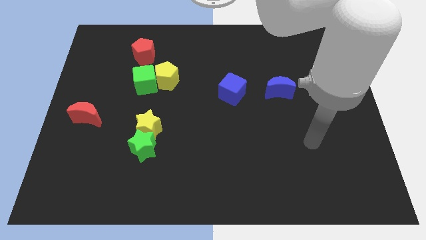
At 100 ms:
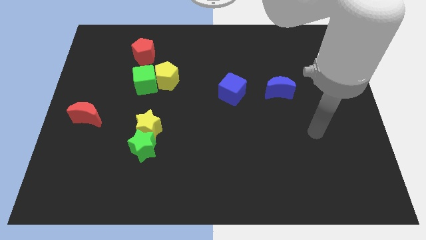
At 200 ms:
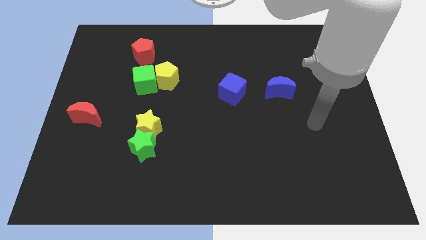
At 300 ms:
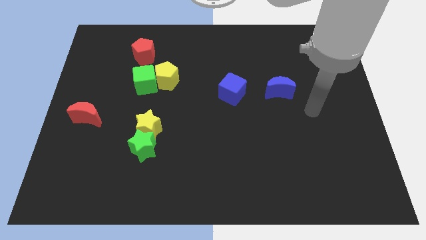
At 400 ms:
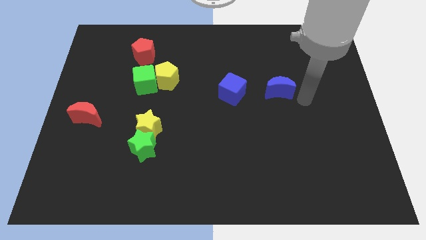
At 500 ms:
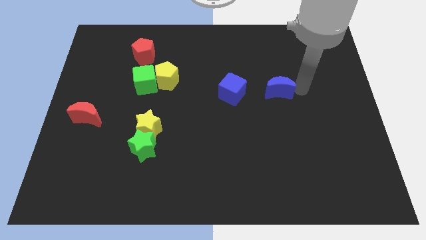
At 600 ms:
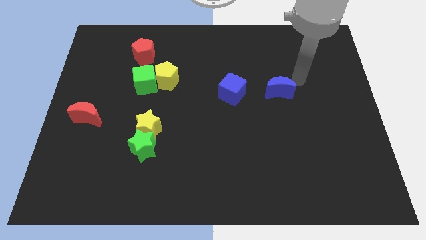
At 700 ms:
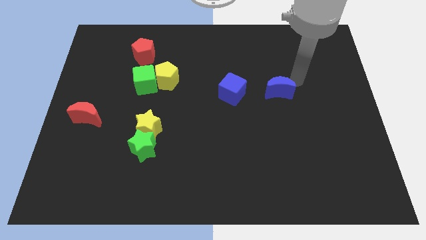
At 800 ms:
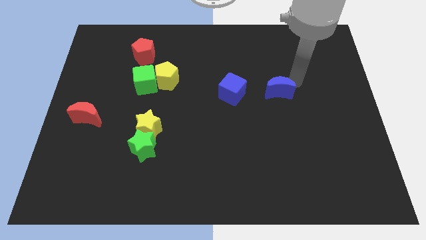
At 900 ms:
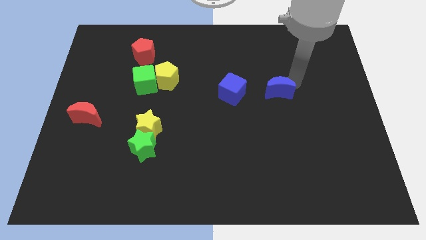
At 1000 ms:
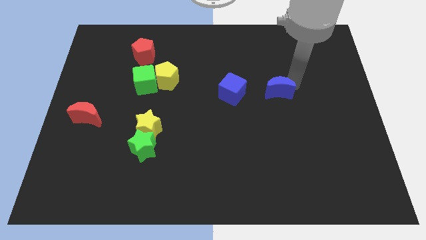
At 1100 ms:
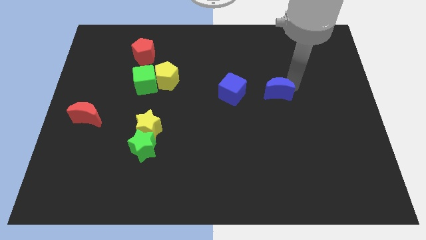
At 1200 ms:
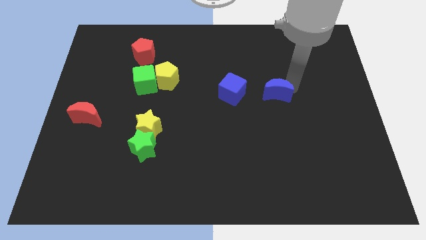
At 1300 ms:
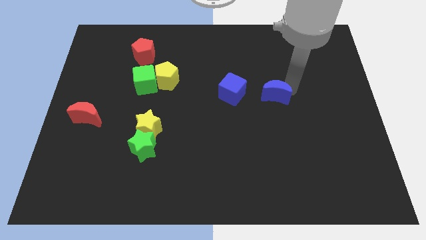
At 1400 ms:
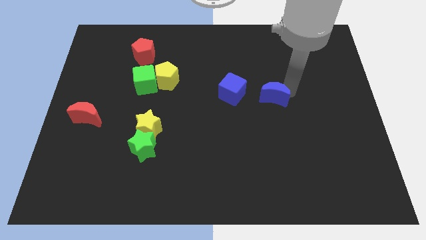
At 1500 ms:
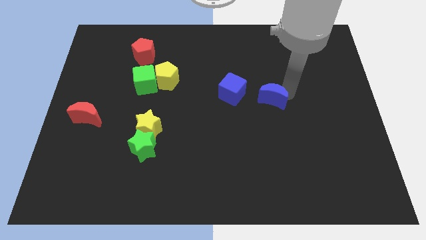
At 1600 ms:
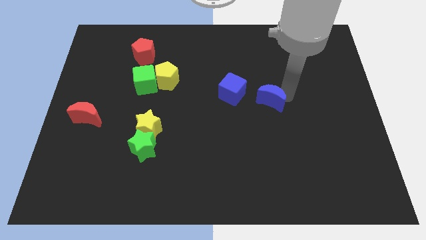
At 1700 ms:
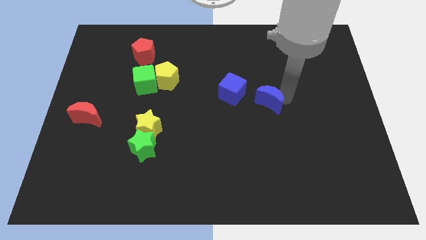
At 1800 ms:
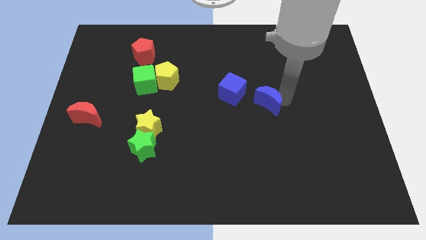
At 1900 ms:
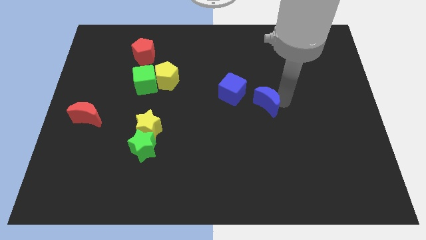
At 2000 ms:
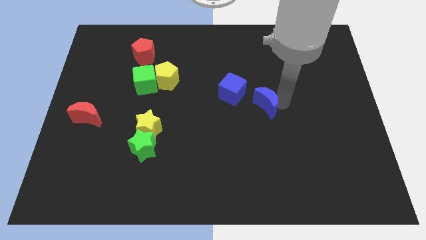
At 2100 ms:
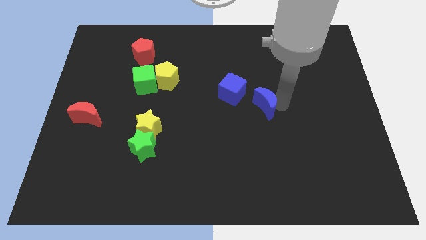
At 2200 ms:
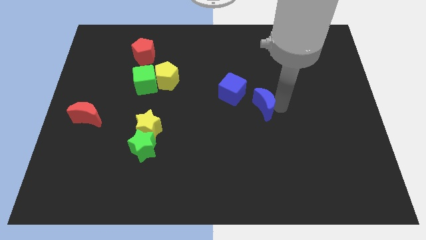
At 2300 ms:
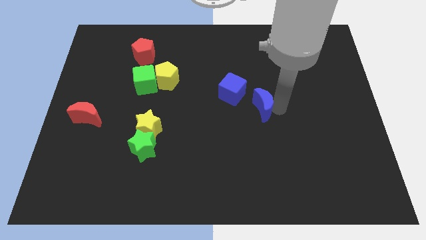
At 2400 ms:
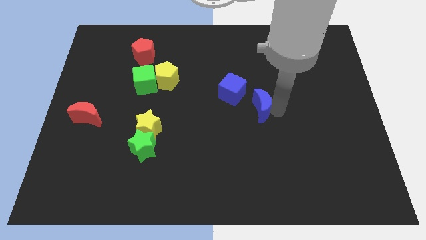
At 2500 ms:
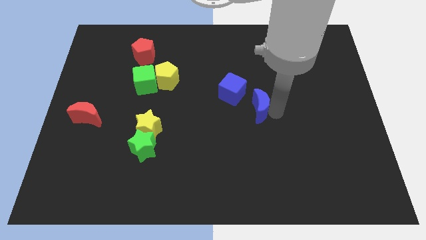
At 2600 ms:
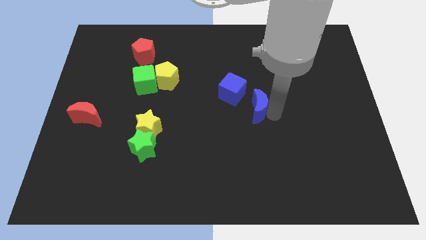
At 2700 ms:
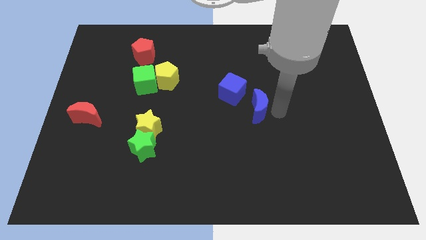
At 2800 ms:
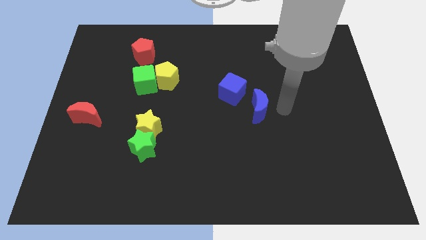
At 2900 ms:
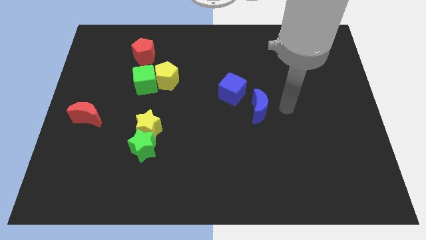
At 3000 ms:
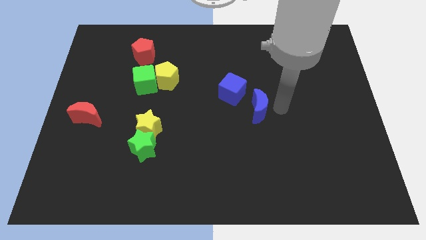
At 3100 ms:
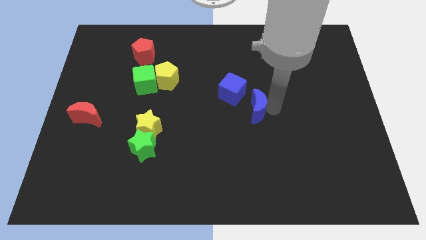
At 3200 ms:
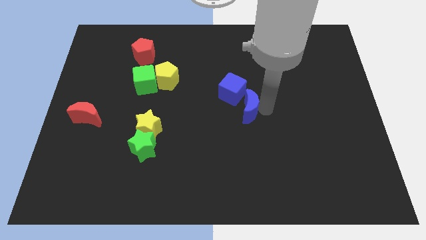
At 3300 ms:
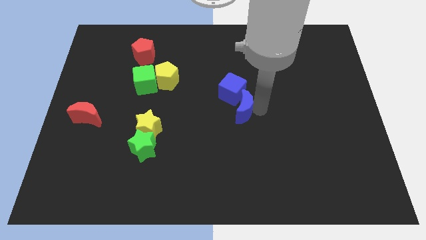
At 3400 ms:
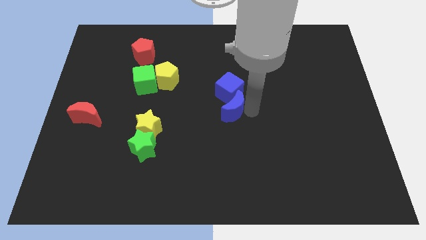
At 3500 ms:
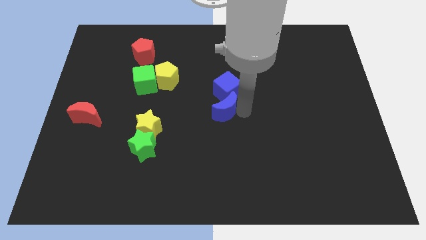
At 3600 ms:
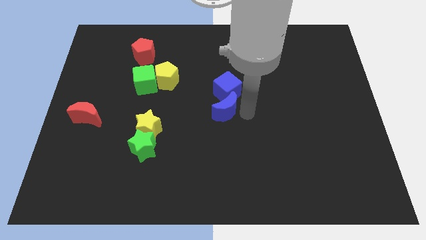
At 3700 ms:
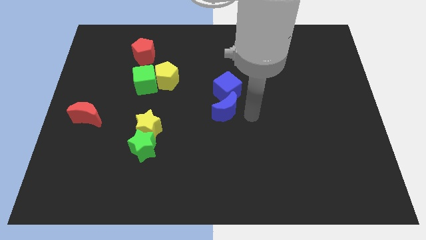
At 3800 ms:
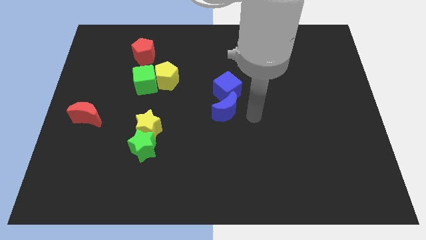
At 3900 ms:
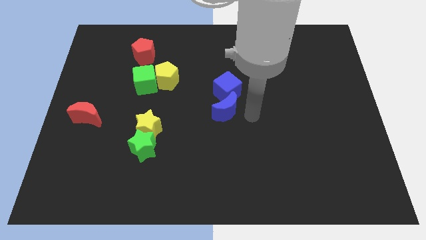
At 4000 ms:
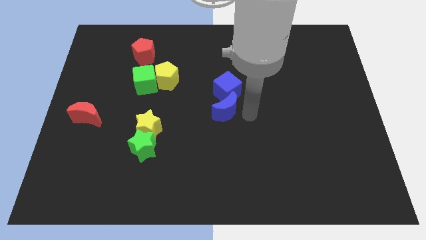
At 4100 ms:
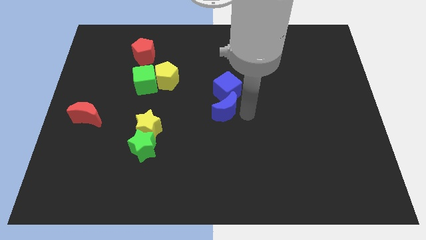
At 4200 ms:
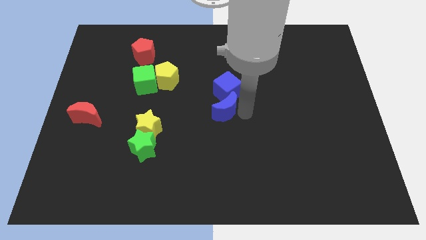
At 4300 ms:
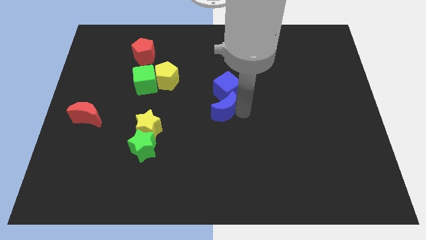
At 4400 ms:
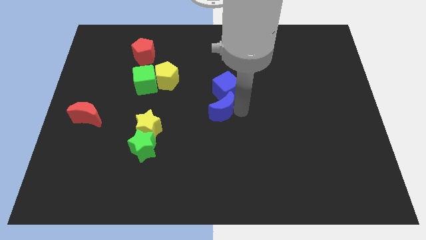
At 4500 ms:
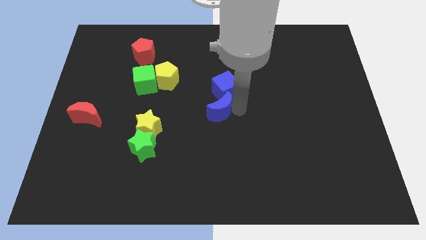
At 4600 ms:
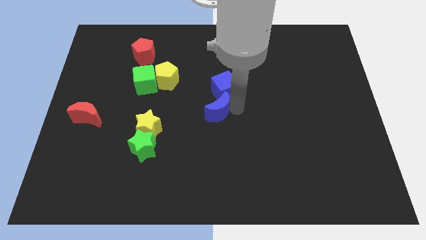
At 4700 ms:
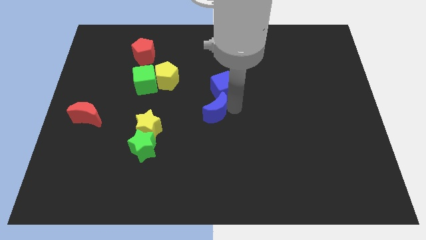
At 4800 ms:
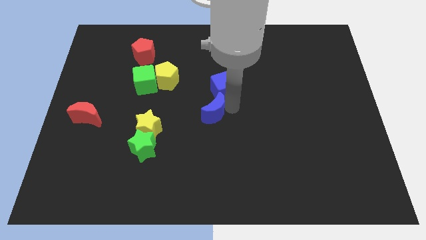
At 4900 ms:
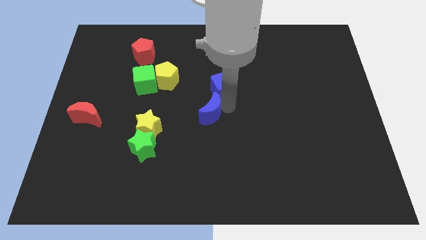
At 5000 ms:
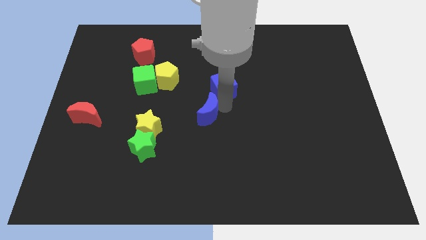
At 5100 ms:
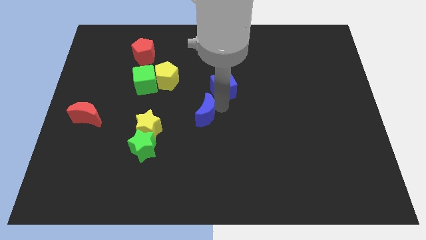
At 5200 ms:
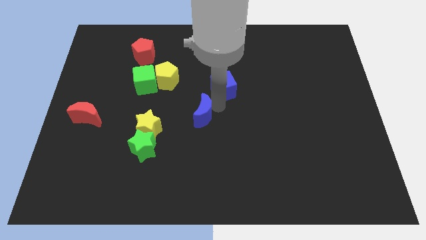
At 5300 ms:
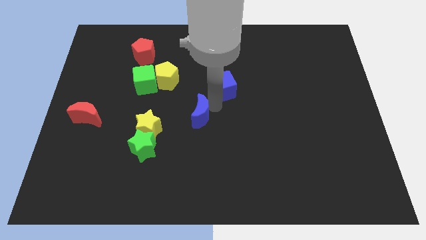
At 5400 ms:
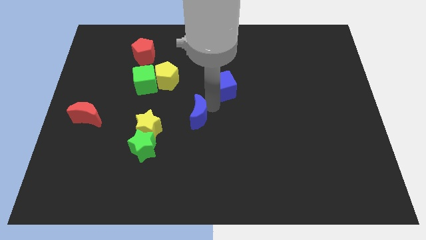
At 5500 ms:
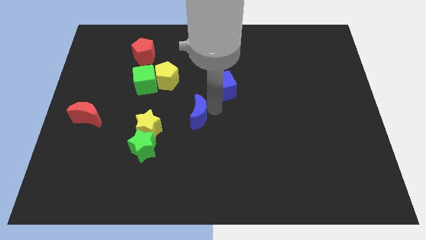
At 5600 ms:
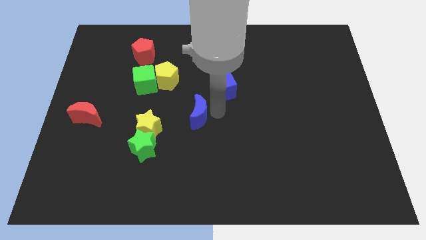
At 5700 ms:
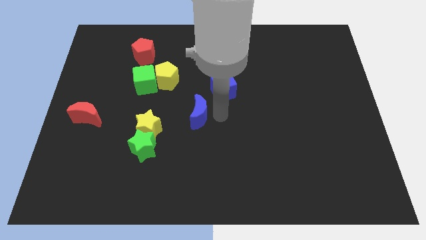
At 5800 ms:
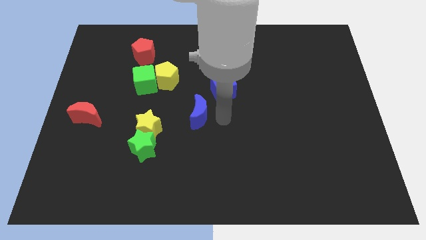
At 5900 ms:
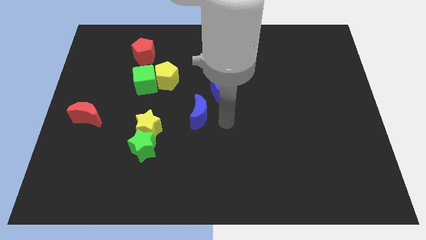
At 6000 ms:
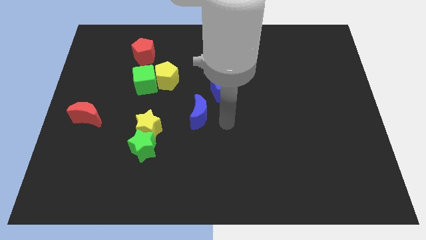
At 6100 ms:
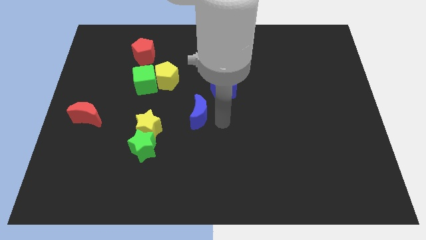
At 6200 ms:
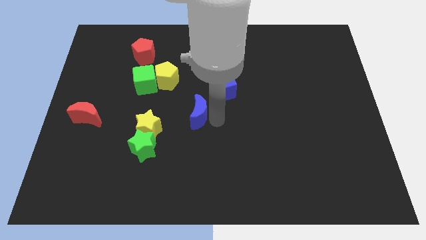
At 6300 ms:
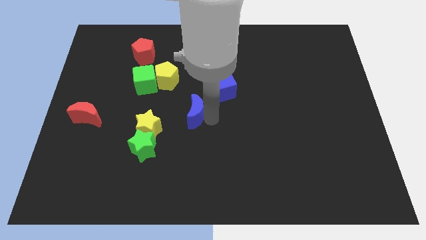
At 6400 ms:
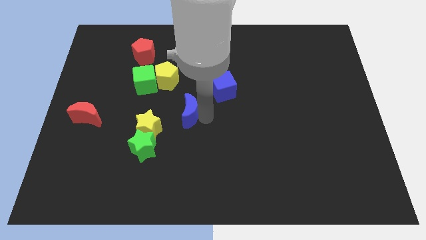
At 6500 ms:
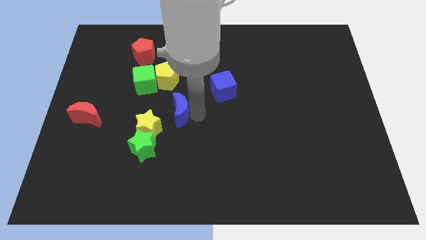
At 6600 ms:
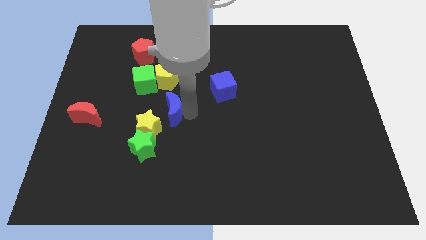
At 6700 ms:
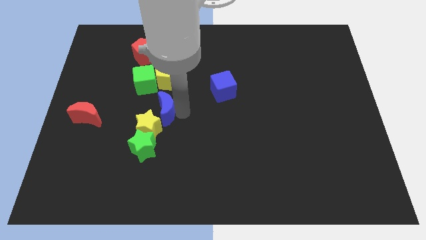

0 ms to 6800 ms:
put the blue moon to the top side of the green star
